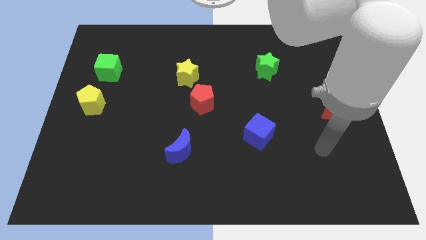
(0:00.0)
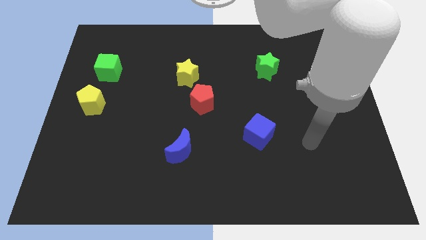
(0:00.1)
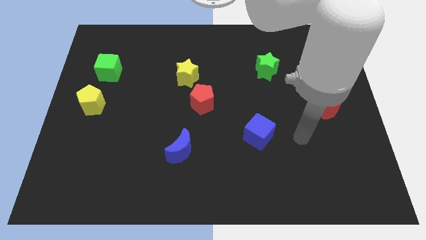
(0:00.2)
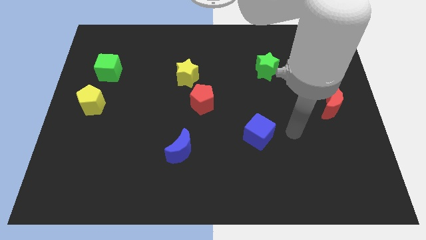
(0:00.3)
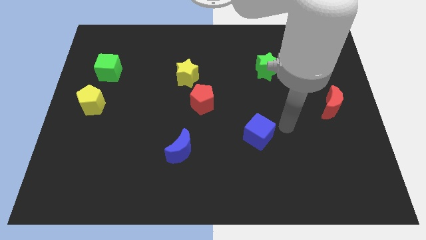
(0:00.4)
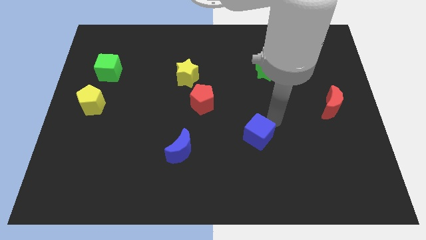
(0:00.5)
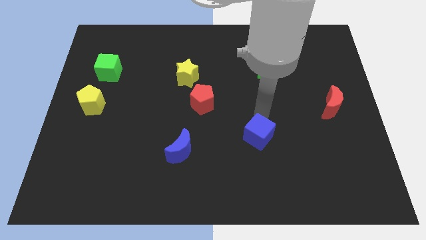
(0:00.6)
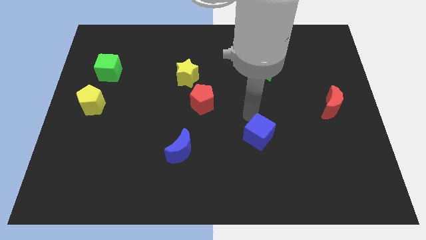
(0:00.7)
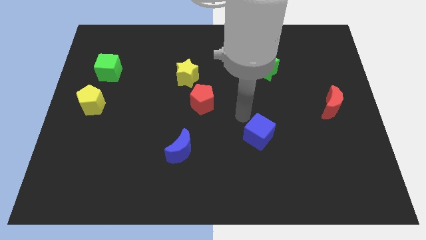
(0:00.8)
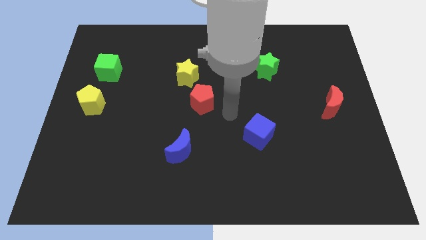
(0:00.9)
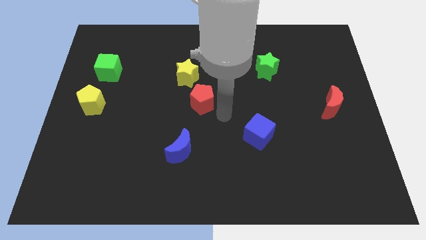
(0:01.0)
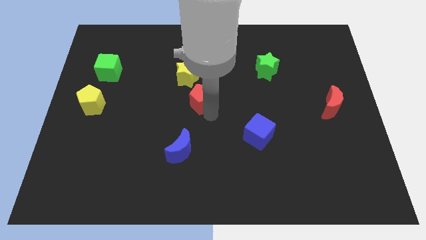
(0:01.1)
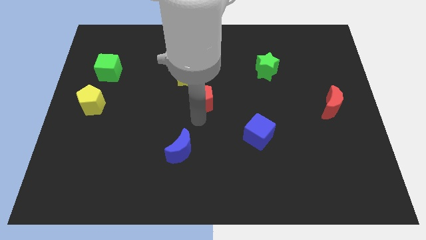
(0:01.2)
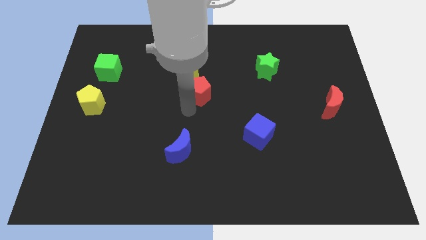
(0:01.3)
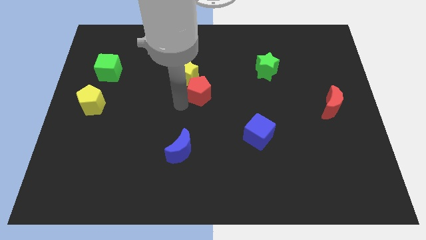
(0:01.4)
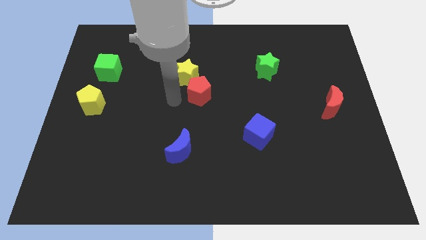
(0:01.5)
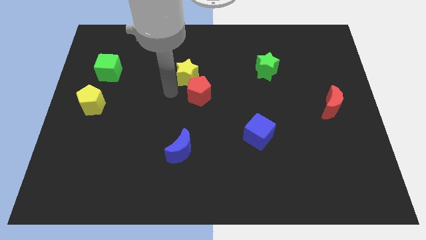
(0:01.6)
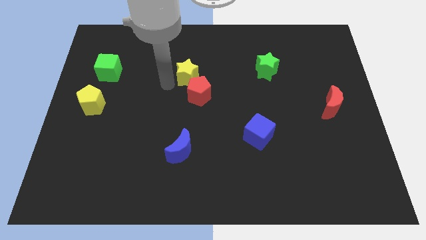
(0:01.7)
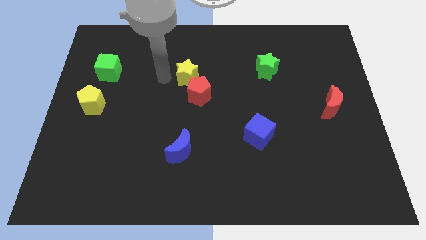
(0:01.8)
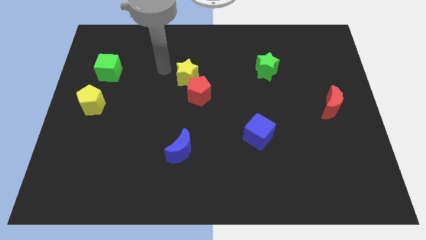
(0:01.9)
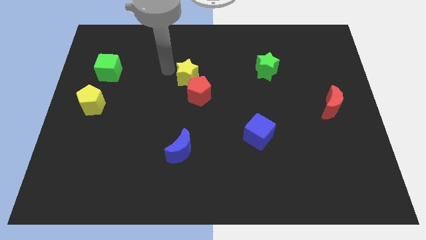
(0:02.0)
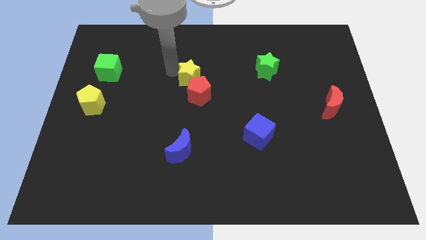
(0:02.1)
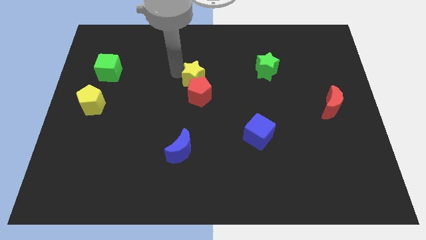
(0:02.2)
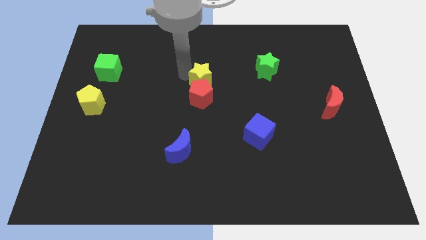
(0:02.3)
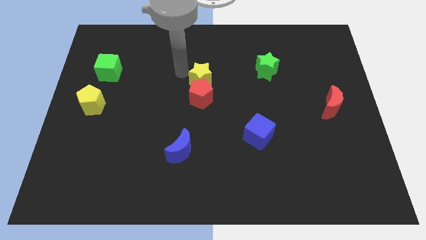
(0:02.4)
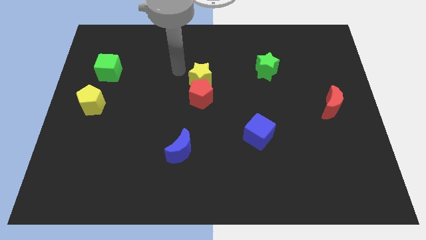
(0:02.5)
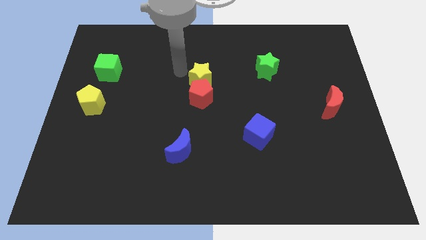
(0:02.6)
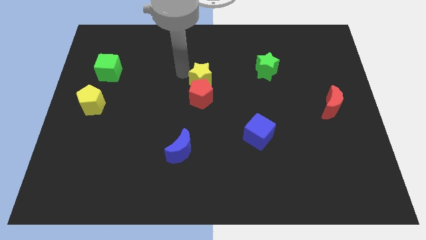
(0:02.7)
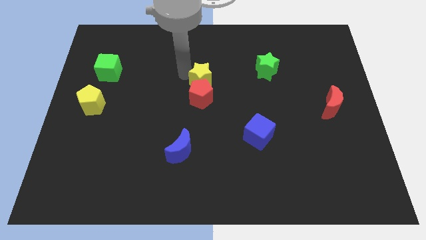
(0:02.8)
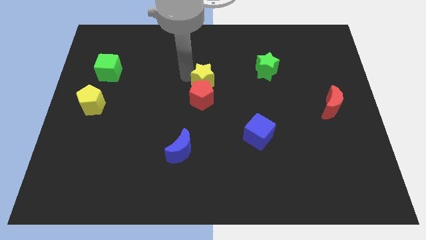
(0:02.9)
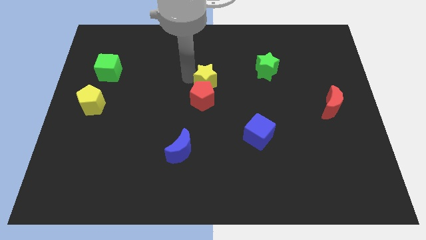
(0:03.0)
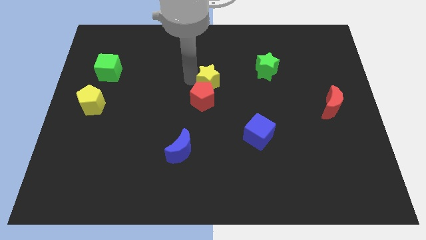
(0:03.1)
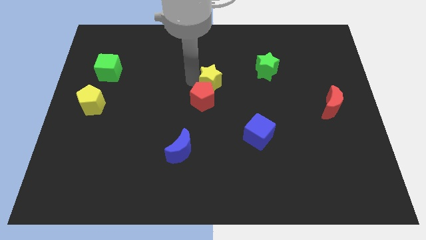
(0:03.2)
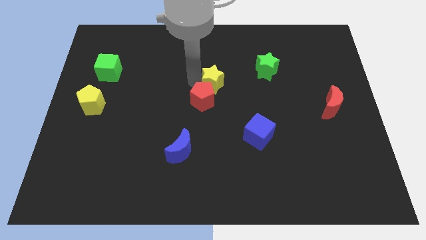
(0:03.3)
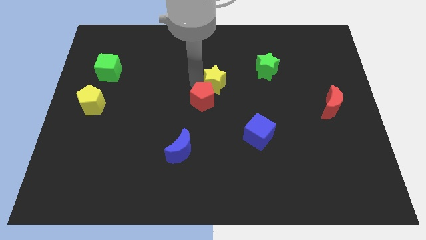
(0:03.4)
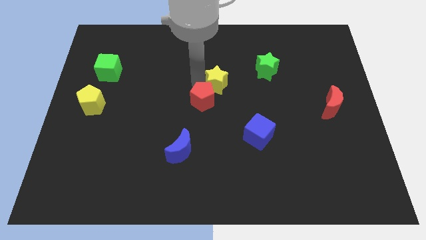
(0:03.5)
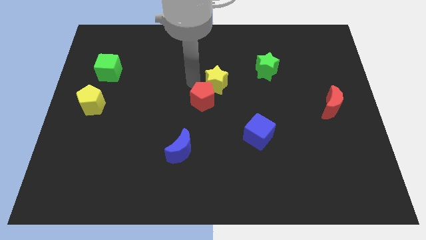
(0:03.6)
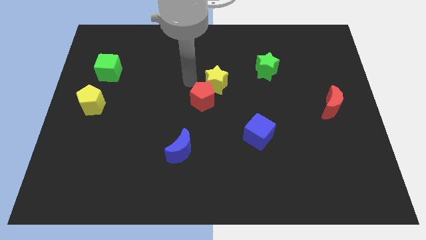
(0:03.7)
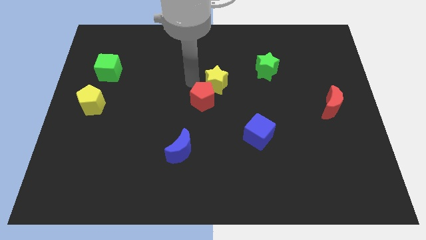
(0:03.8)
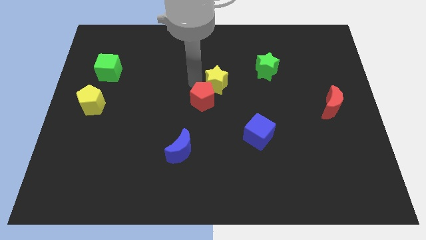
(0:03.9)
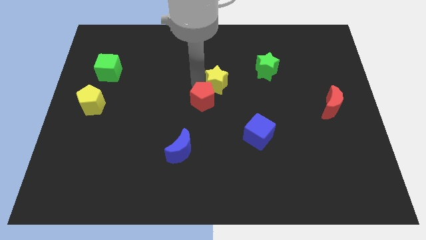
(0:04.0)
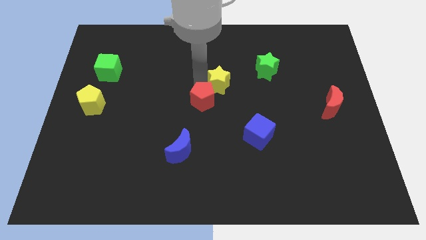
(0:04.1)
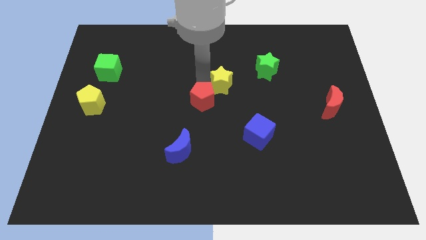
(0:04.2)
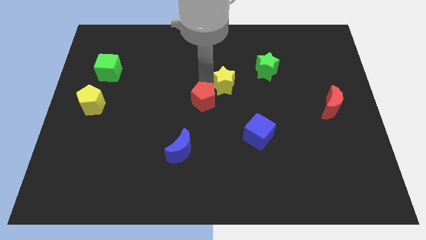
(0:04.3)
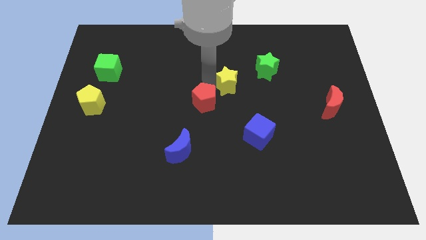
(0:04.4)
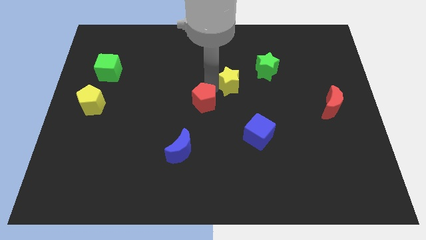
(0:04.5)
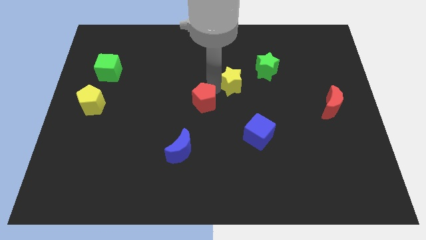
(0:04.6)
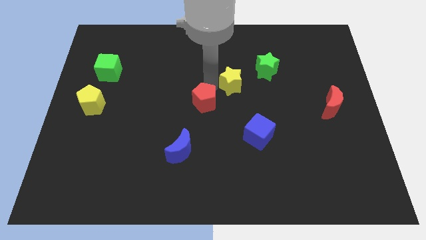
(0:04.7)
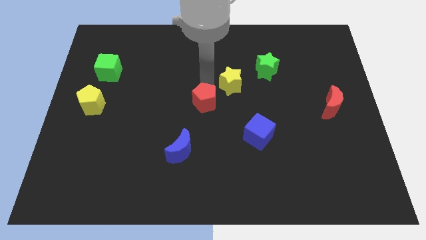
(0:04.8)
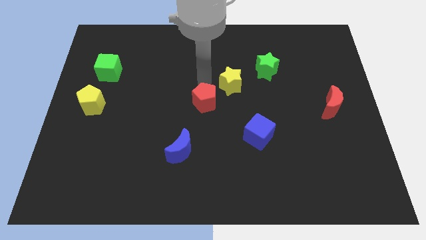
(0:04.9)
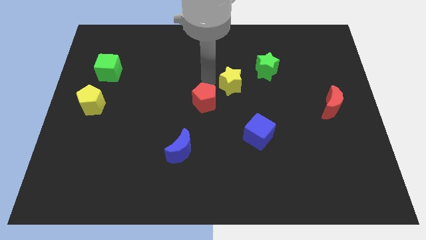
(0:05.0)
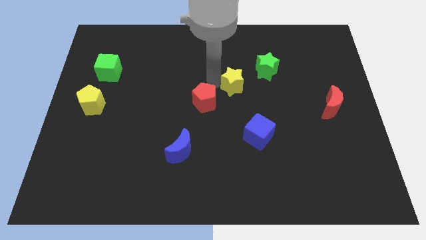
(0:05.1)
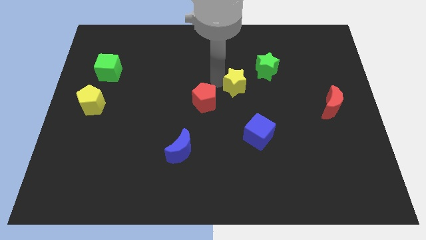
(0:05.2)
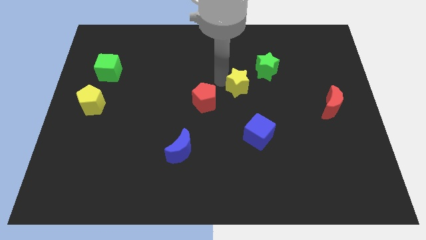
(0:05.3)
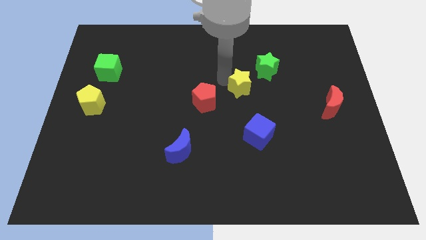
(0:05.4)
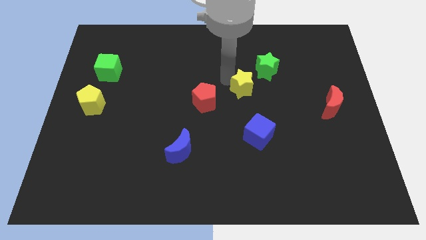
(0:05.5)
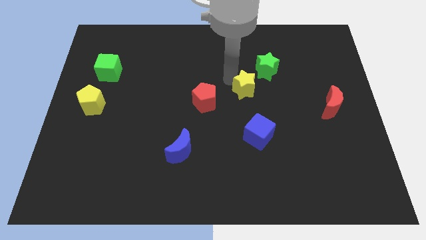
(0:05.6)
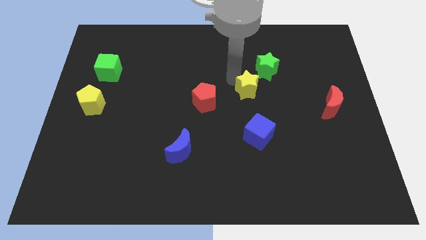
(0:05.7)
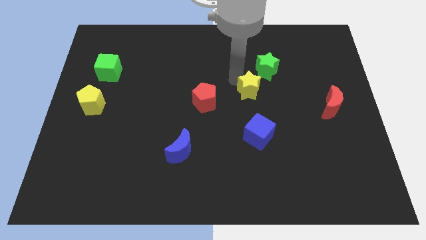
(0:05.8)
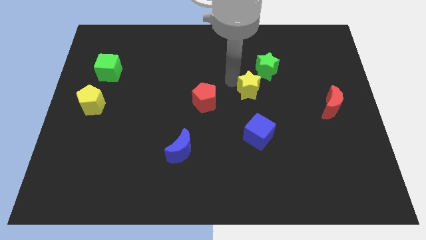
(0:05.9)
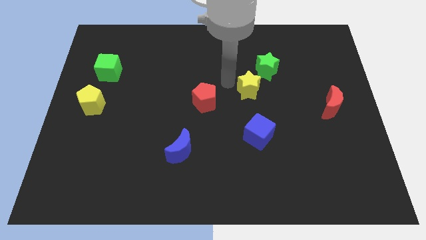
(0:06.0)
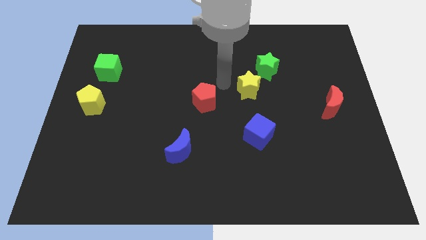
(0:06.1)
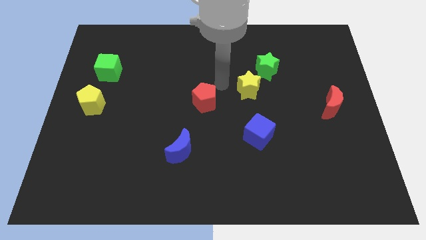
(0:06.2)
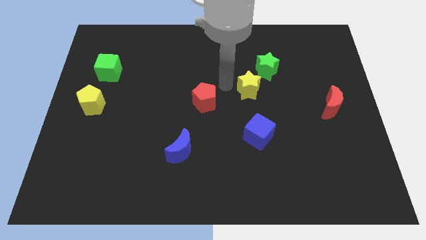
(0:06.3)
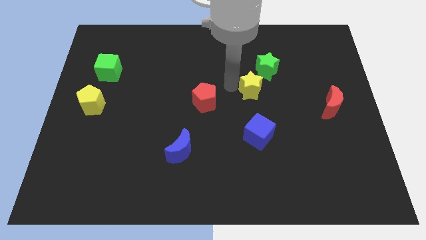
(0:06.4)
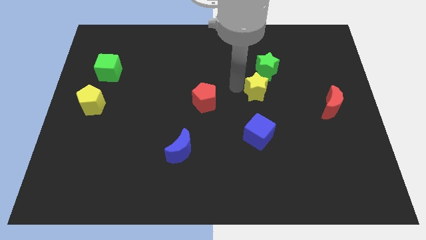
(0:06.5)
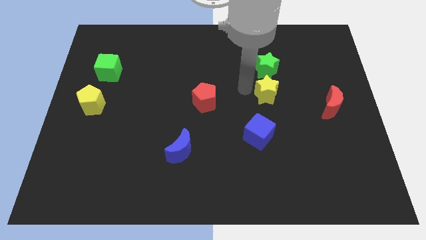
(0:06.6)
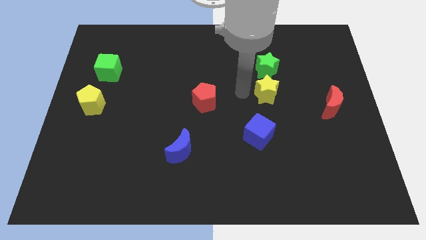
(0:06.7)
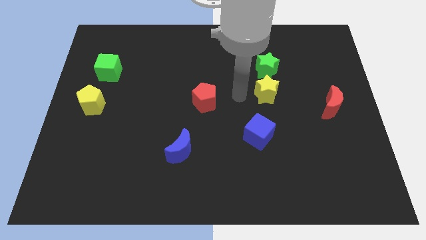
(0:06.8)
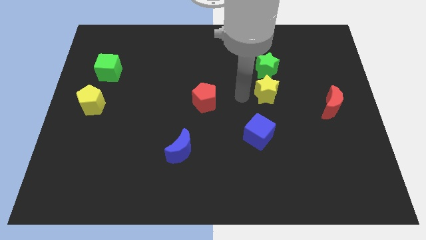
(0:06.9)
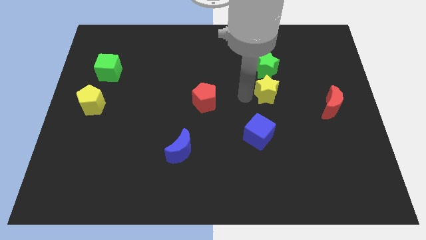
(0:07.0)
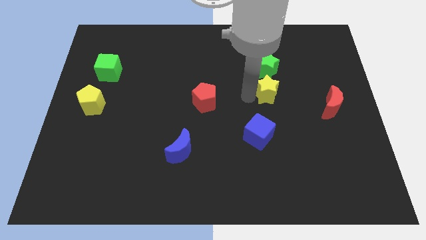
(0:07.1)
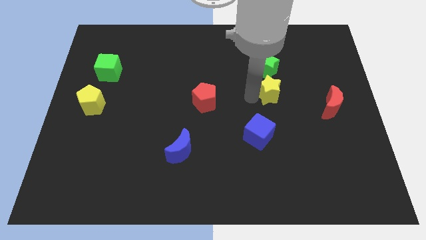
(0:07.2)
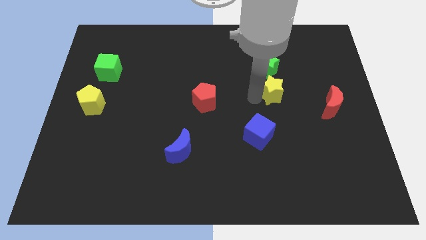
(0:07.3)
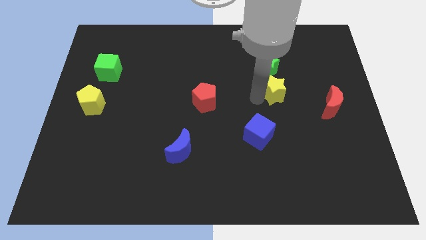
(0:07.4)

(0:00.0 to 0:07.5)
slide the yellow star right

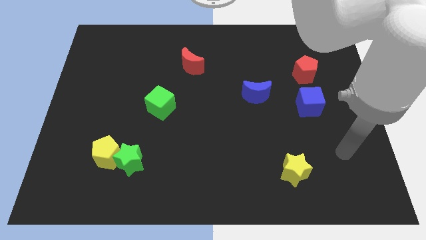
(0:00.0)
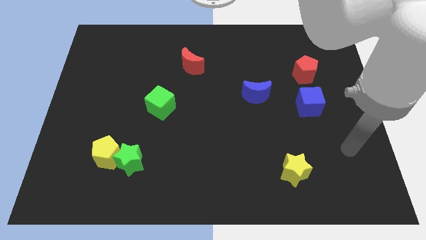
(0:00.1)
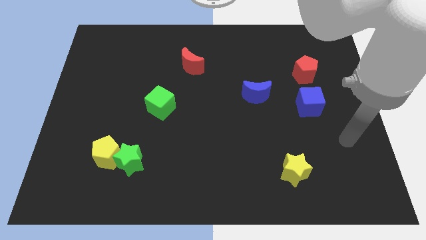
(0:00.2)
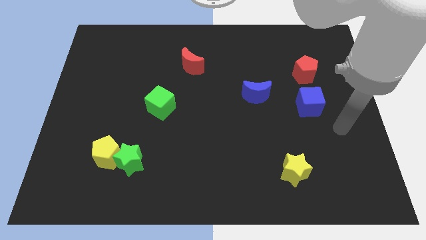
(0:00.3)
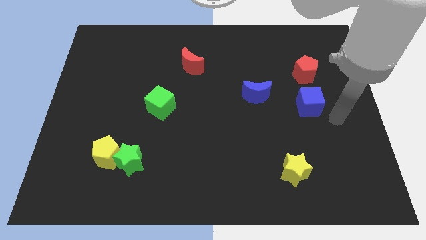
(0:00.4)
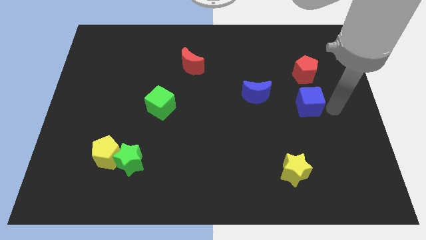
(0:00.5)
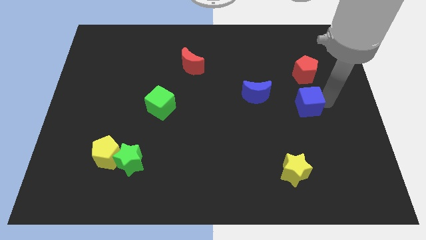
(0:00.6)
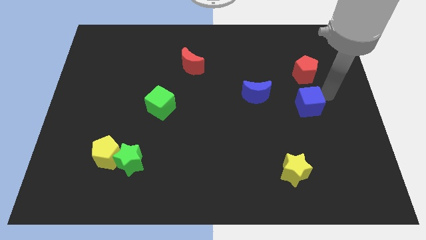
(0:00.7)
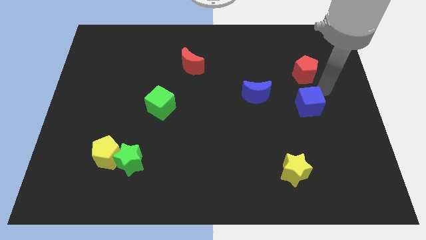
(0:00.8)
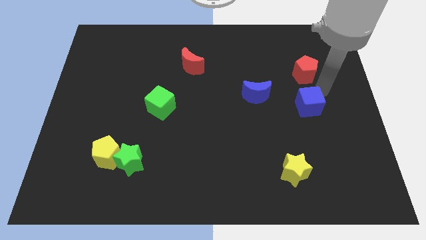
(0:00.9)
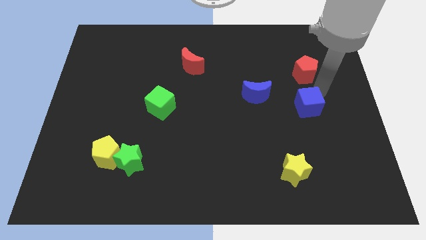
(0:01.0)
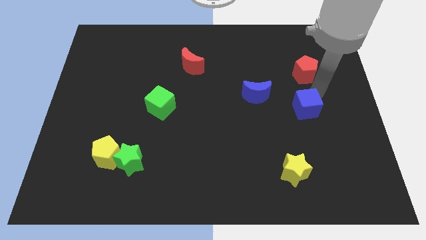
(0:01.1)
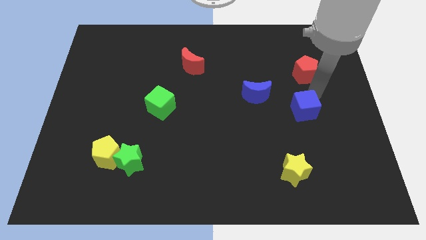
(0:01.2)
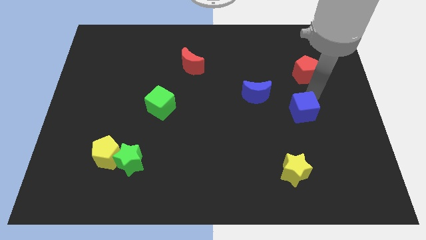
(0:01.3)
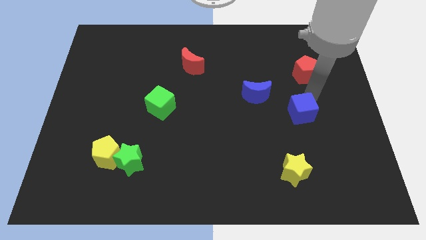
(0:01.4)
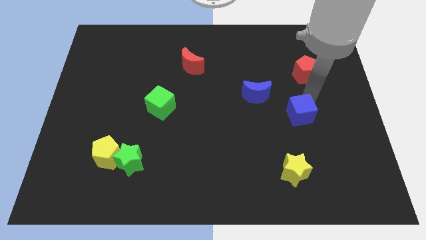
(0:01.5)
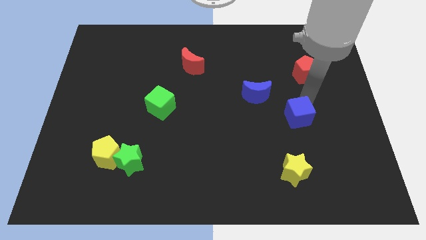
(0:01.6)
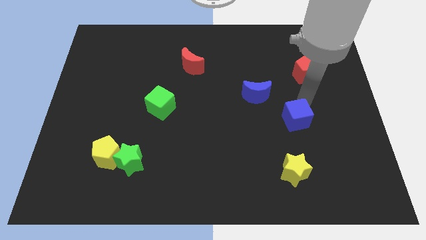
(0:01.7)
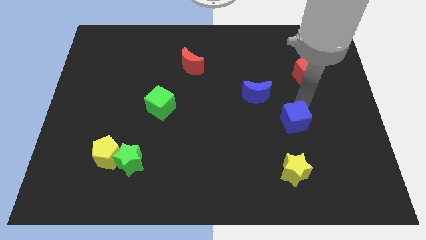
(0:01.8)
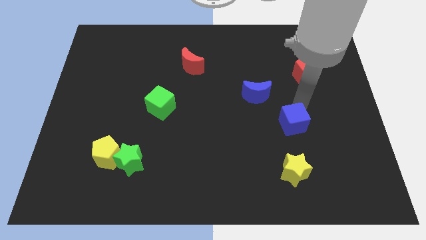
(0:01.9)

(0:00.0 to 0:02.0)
slide the blue cube downwards and then left a bit
